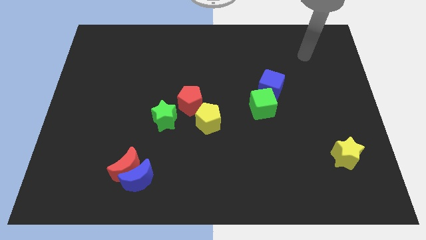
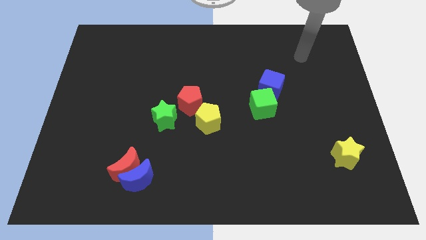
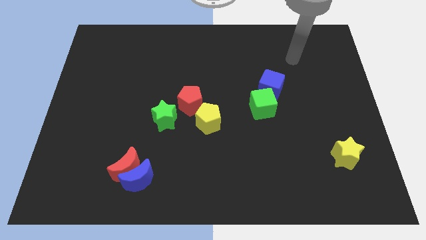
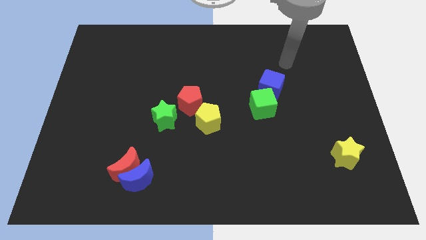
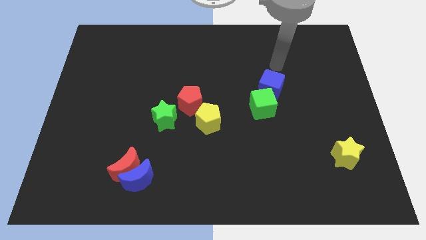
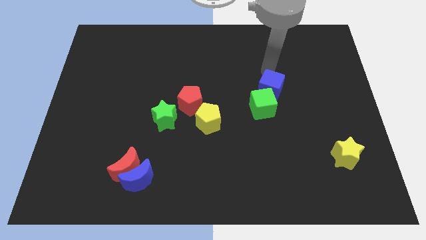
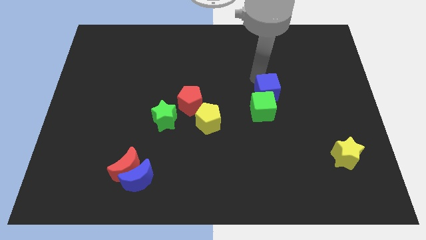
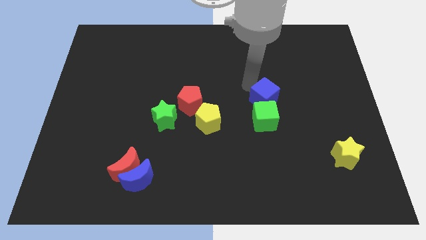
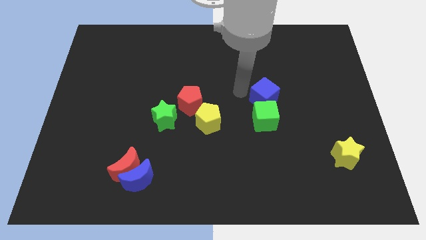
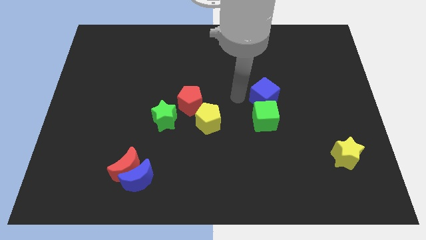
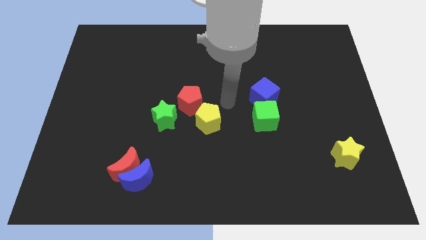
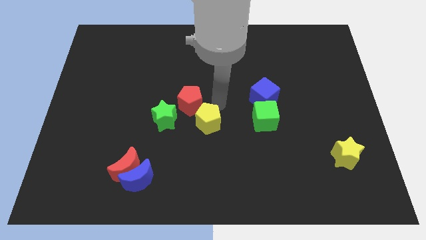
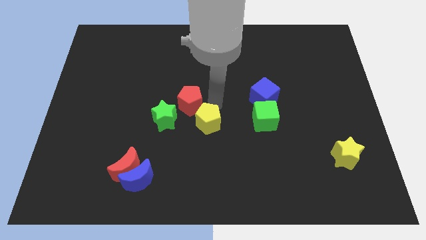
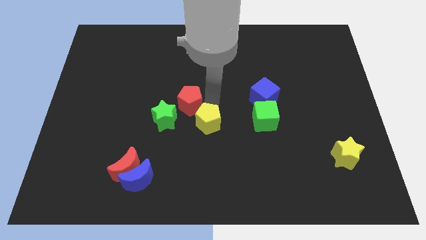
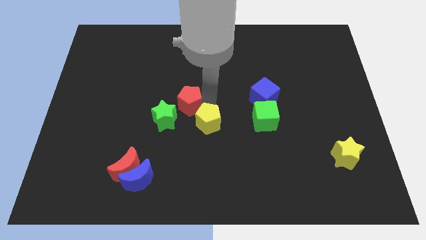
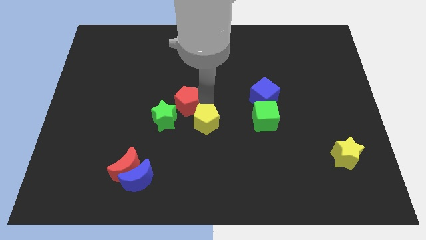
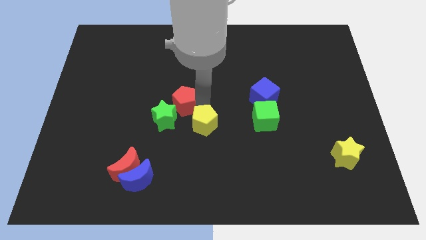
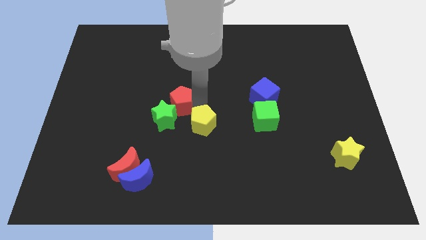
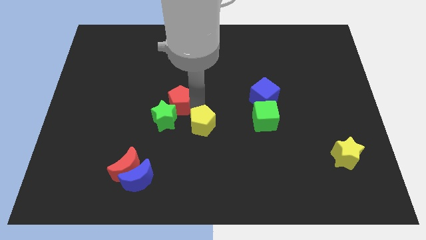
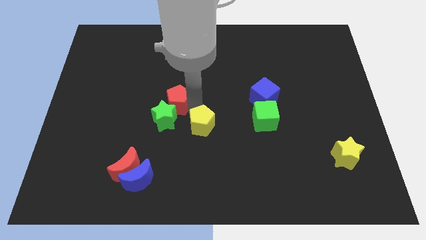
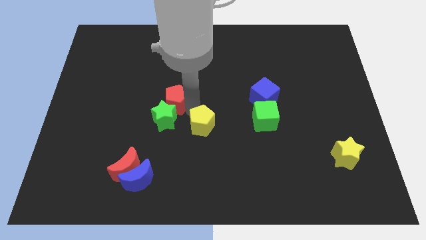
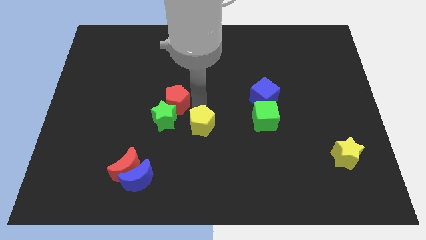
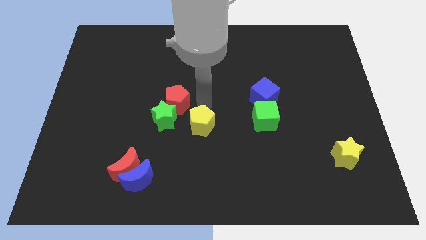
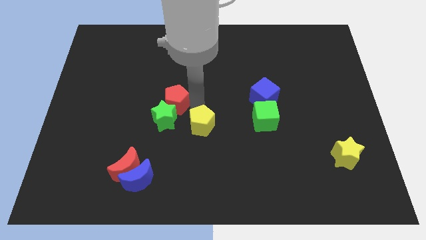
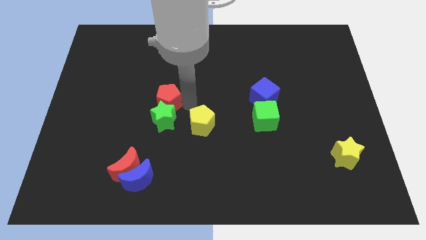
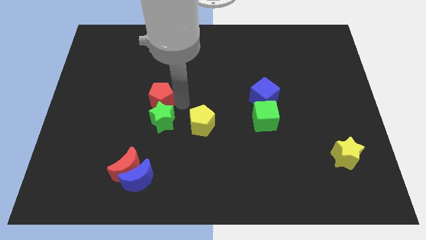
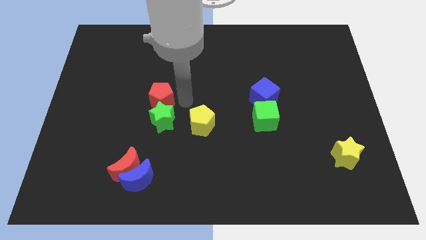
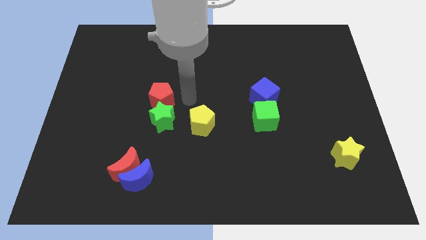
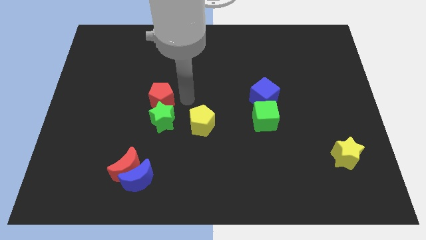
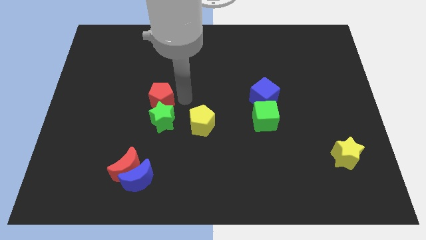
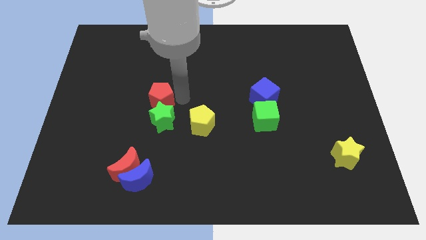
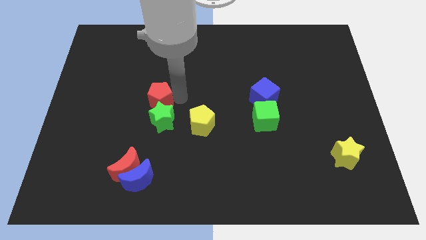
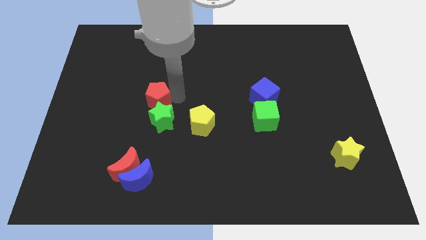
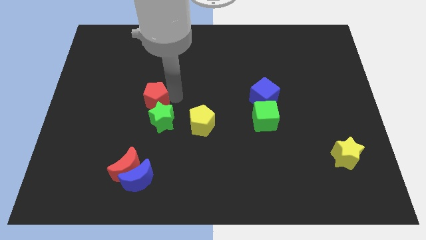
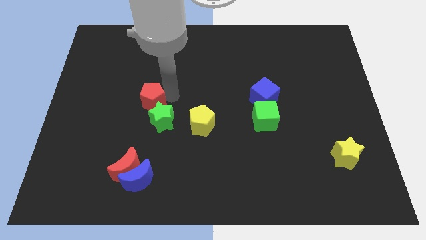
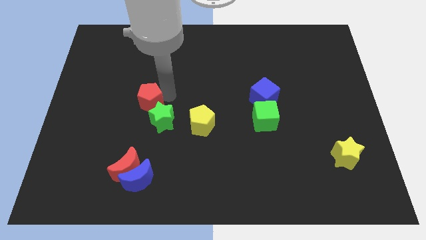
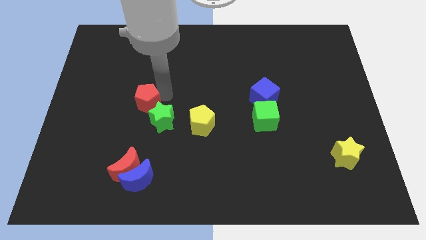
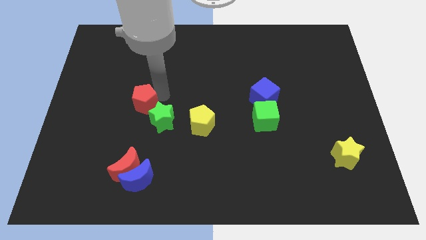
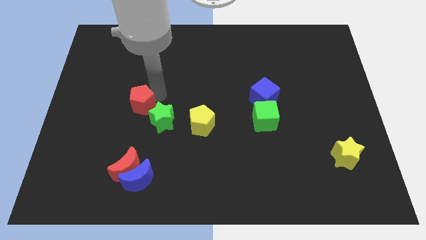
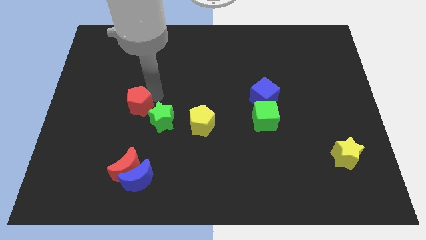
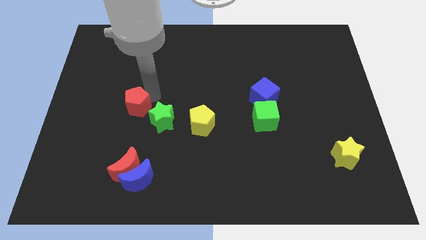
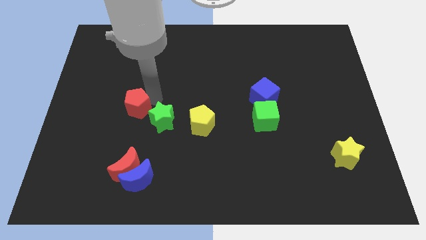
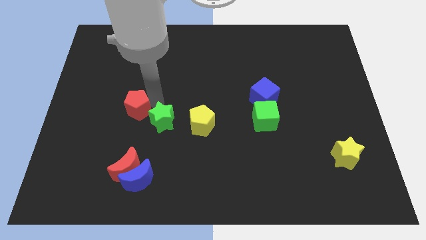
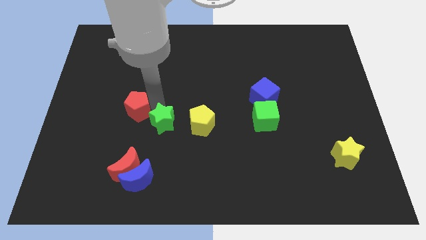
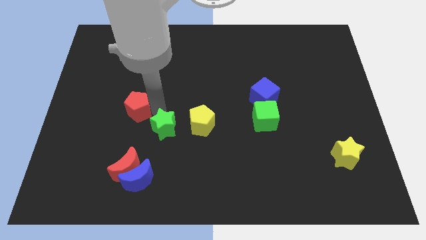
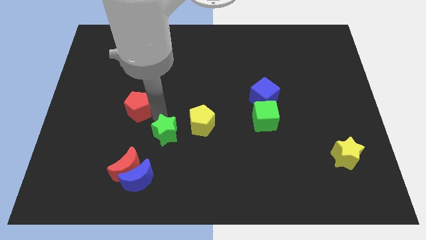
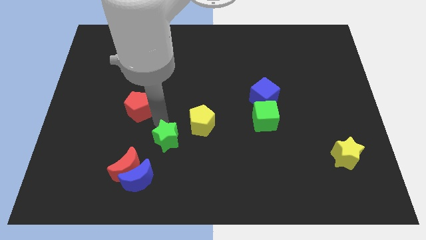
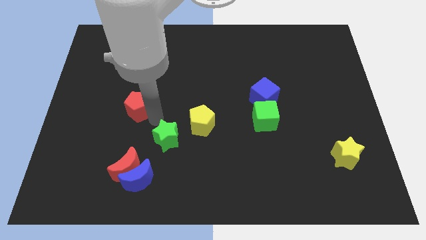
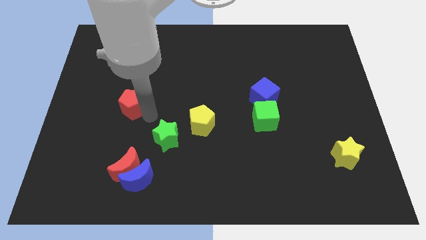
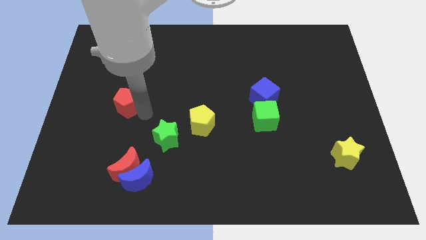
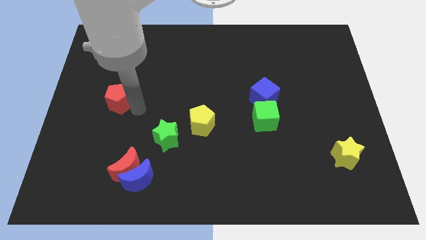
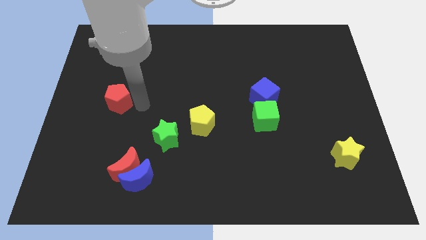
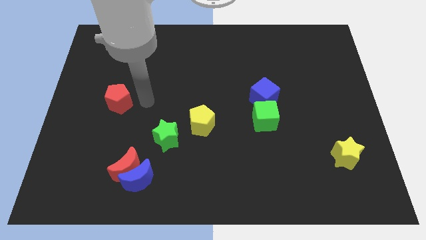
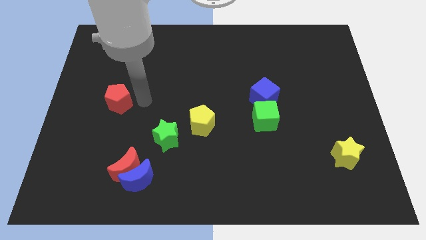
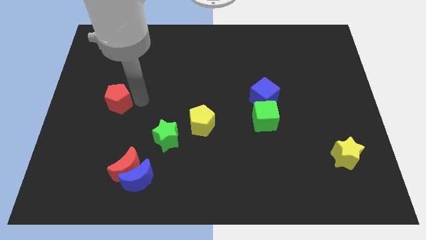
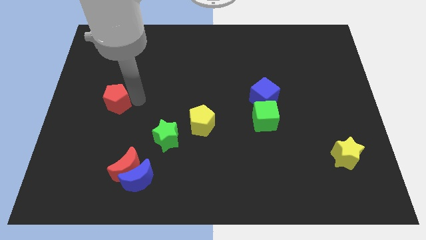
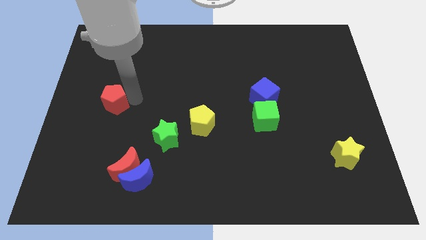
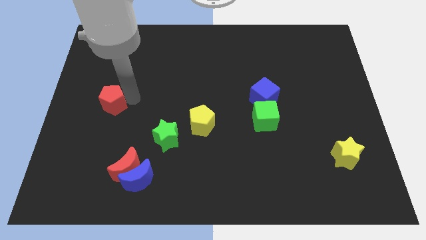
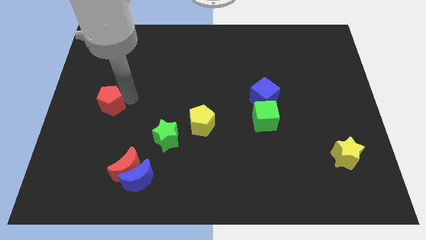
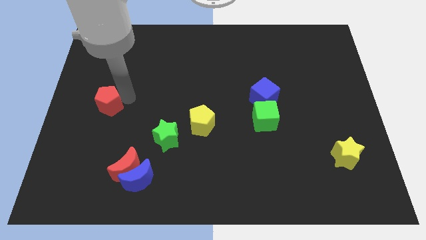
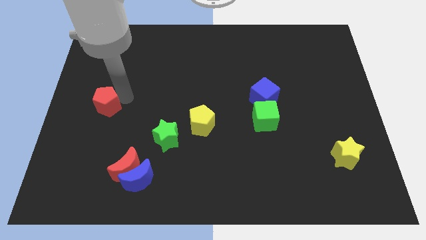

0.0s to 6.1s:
put the red pentagon to the center left
